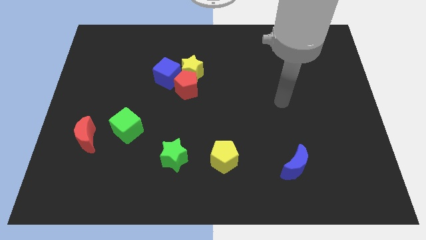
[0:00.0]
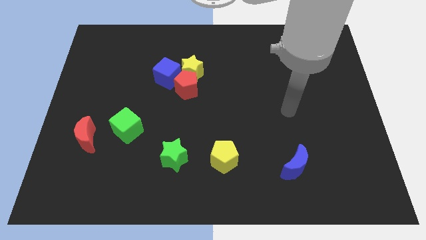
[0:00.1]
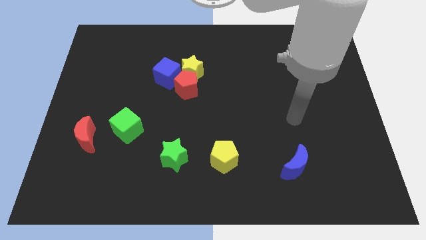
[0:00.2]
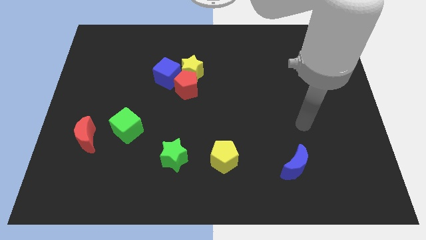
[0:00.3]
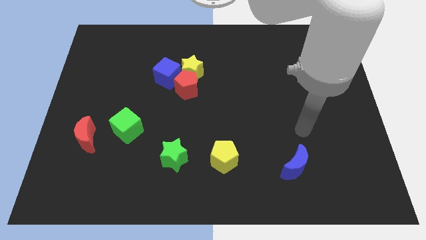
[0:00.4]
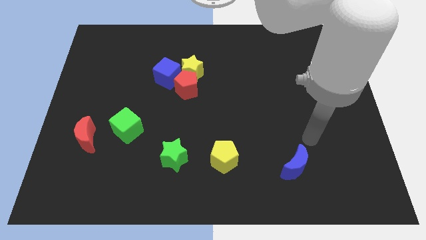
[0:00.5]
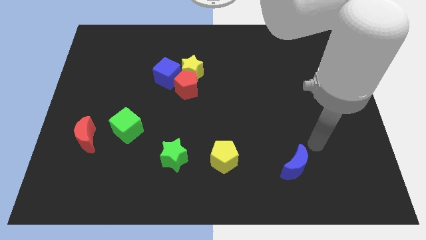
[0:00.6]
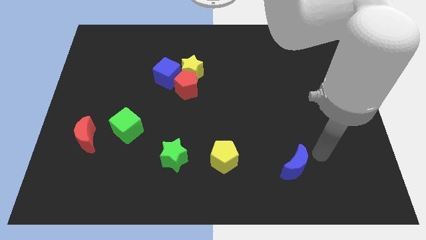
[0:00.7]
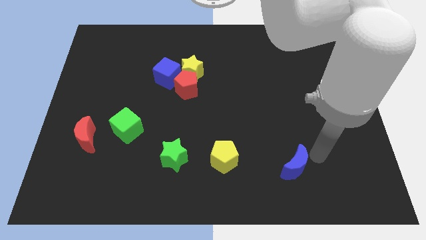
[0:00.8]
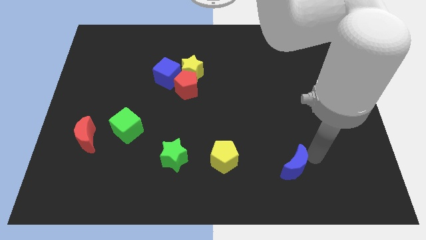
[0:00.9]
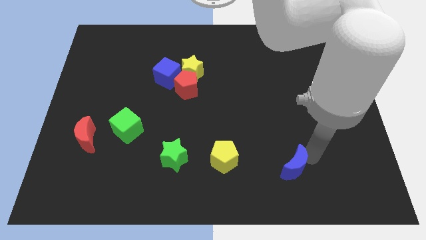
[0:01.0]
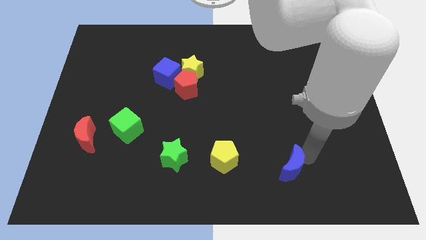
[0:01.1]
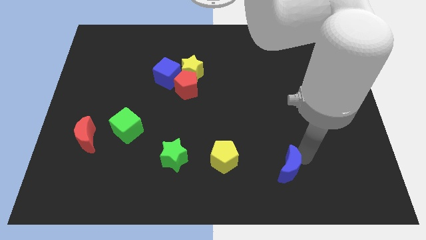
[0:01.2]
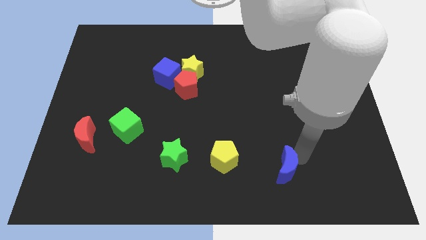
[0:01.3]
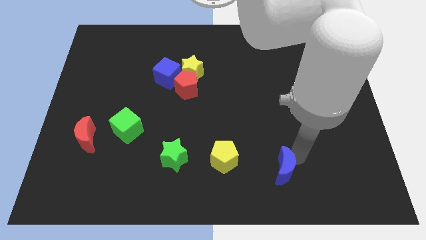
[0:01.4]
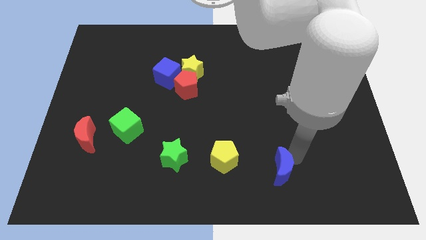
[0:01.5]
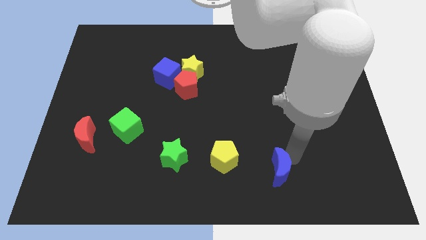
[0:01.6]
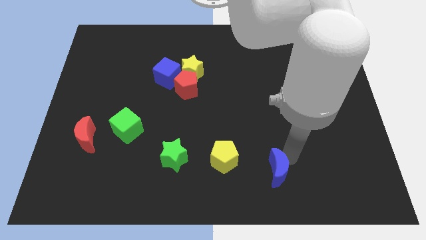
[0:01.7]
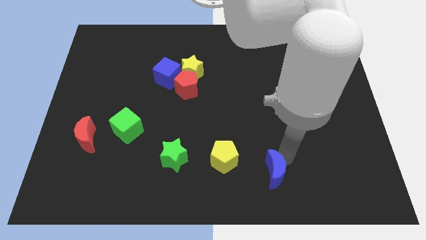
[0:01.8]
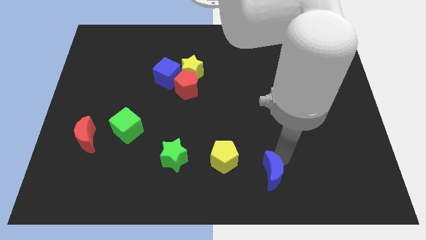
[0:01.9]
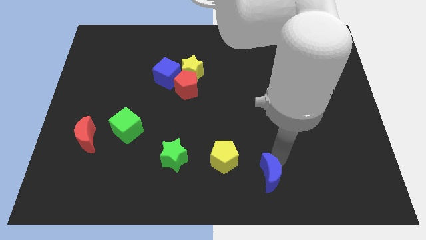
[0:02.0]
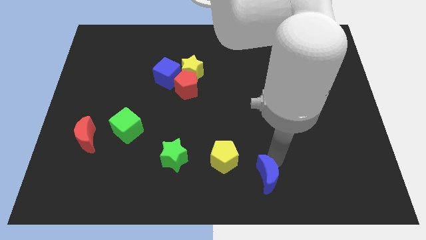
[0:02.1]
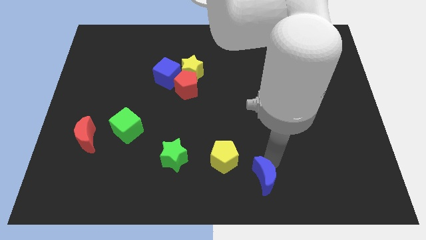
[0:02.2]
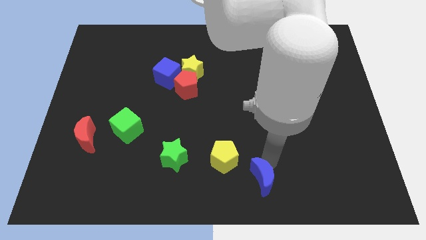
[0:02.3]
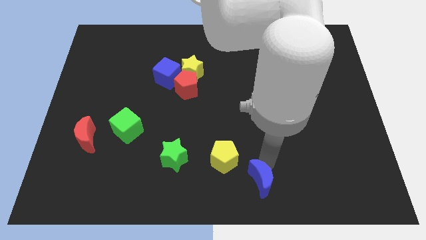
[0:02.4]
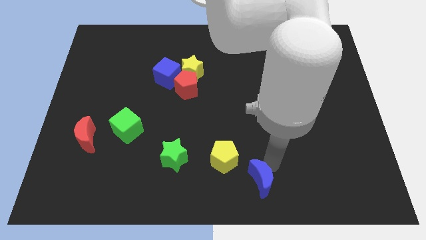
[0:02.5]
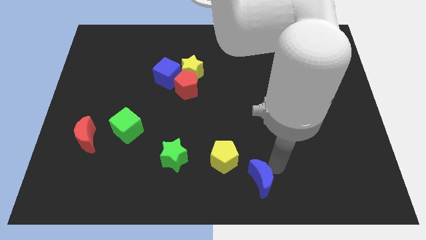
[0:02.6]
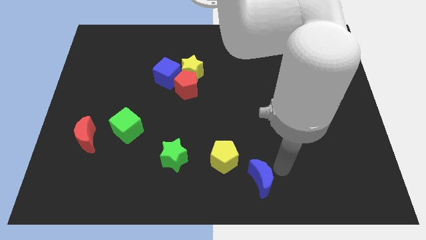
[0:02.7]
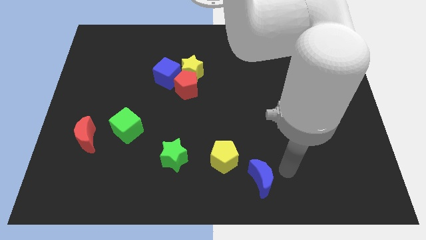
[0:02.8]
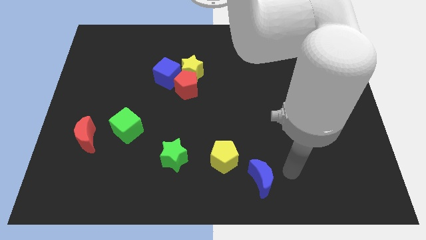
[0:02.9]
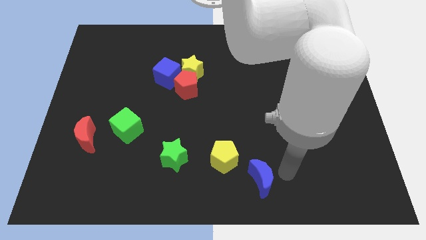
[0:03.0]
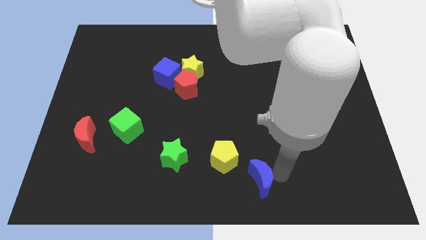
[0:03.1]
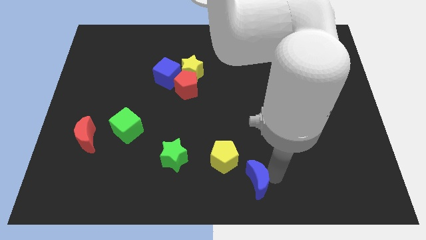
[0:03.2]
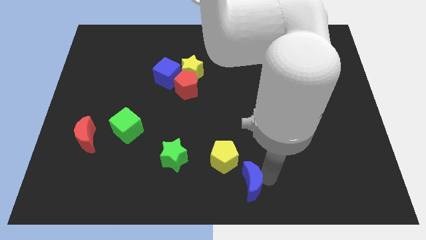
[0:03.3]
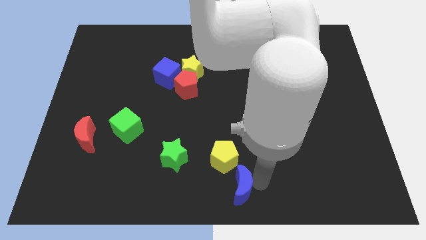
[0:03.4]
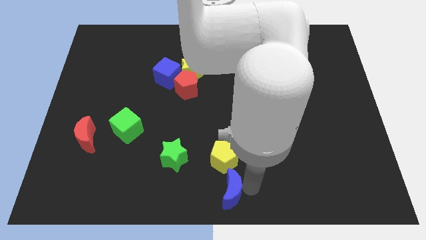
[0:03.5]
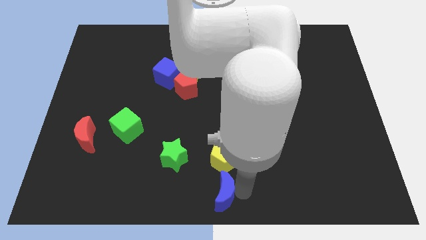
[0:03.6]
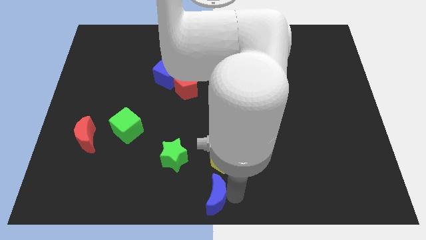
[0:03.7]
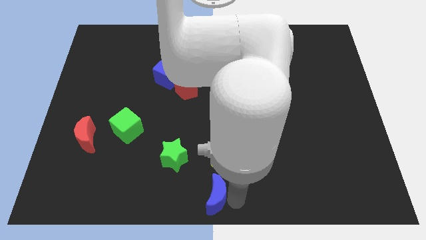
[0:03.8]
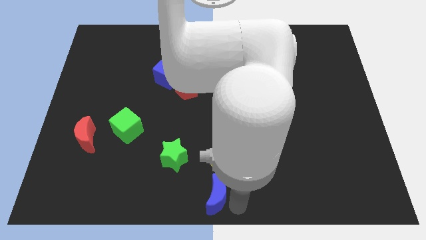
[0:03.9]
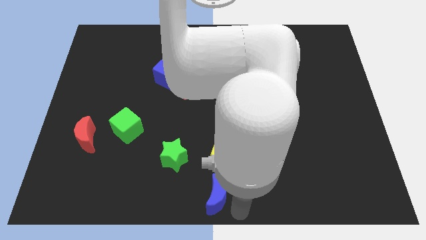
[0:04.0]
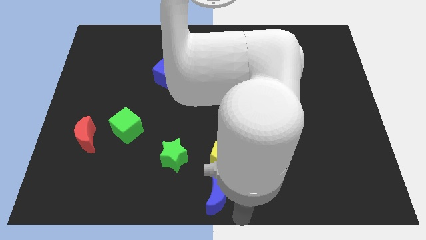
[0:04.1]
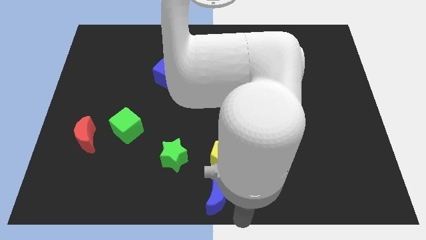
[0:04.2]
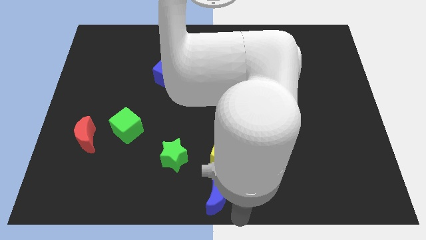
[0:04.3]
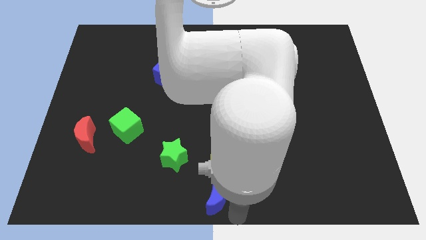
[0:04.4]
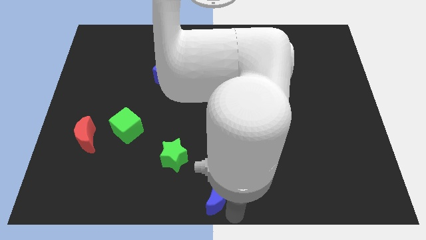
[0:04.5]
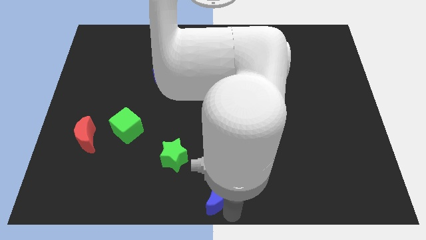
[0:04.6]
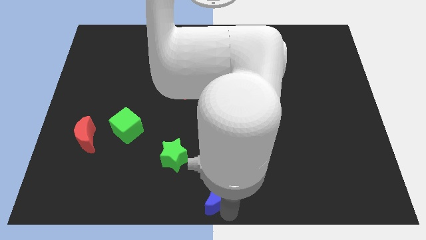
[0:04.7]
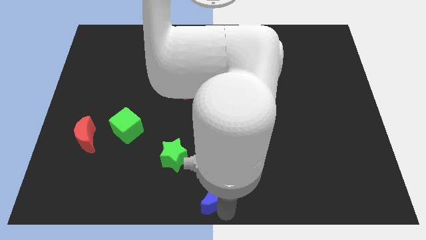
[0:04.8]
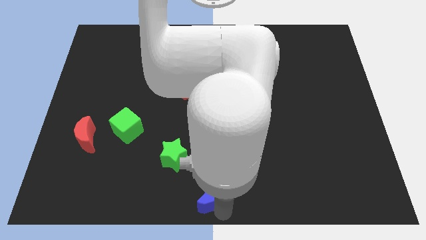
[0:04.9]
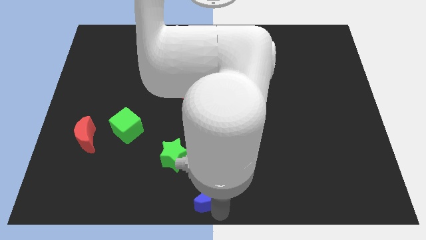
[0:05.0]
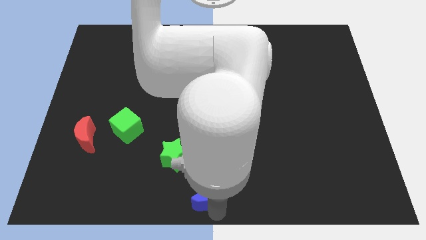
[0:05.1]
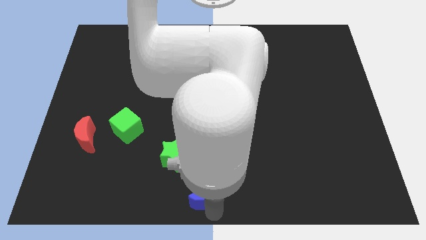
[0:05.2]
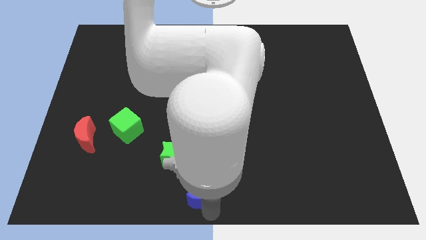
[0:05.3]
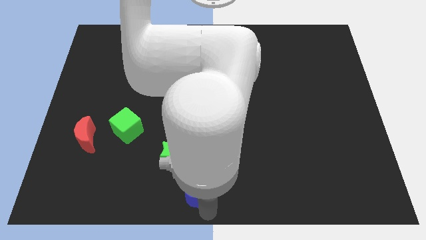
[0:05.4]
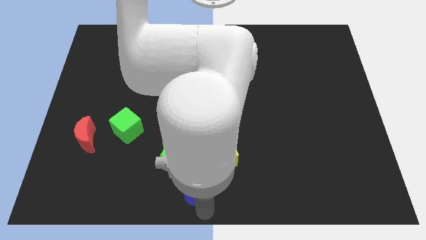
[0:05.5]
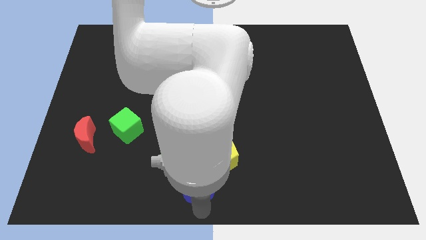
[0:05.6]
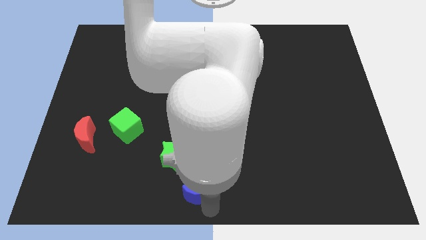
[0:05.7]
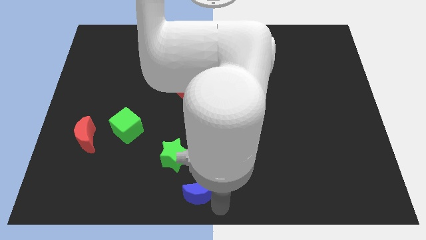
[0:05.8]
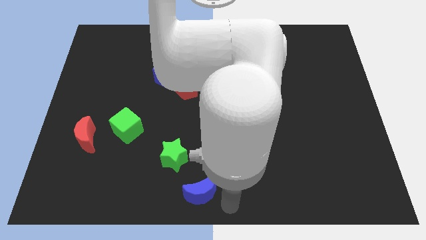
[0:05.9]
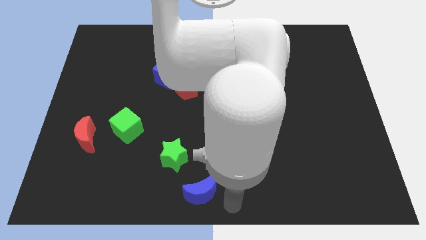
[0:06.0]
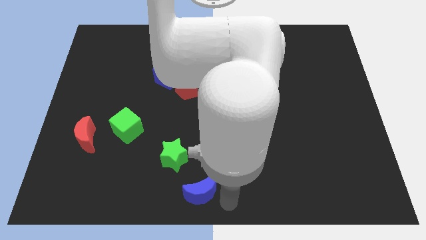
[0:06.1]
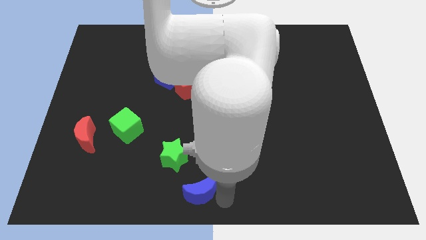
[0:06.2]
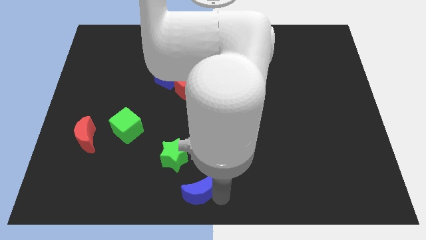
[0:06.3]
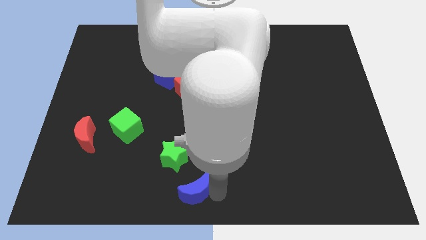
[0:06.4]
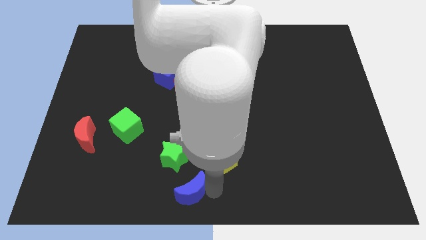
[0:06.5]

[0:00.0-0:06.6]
move the blue moon to the left

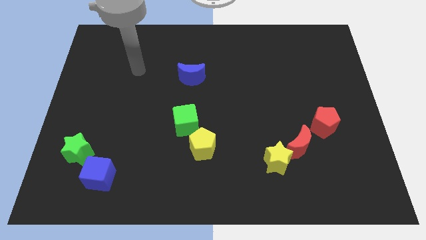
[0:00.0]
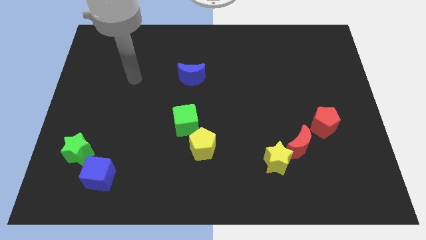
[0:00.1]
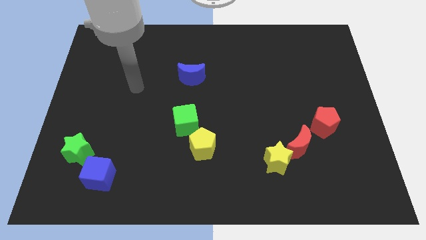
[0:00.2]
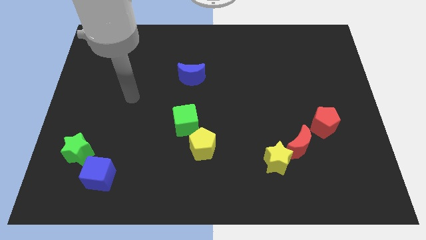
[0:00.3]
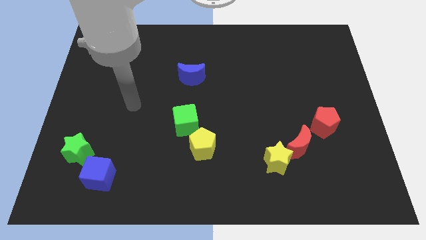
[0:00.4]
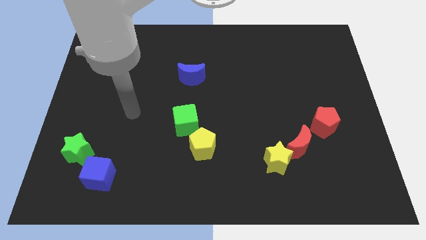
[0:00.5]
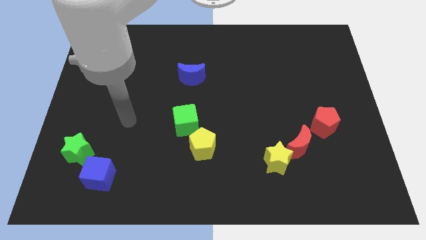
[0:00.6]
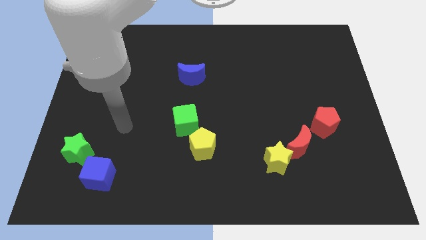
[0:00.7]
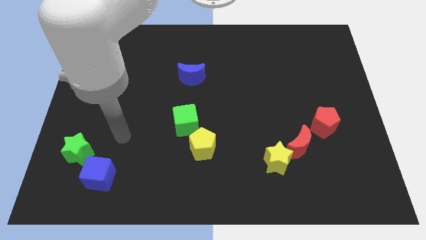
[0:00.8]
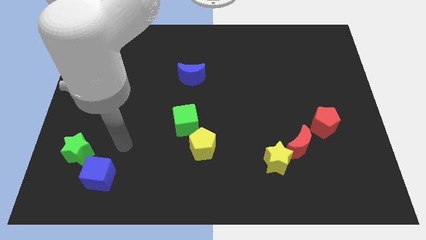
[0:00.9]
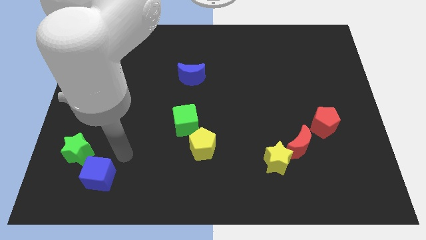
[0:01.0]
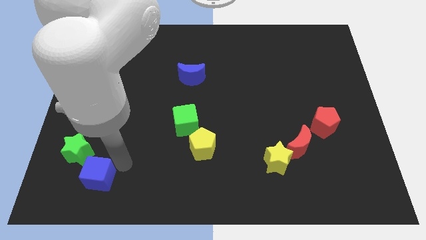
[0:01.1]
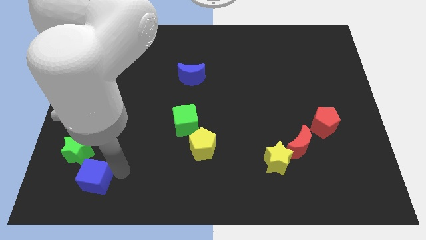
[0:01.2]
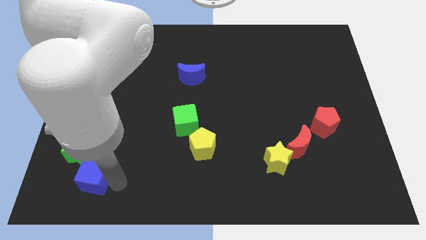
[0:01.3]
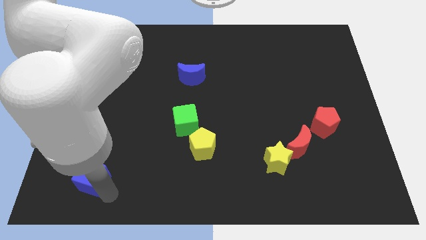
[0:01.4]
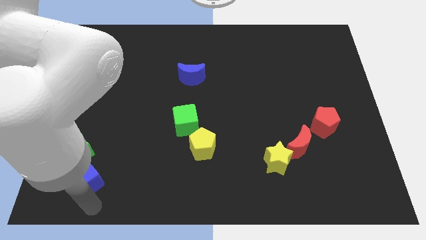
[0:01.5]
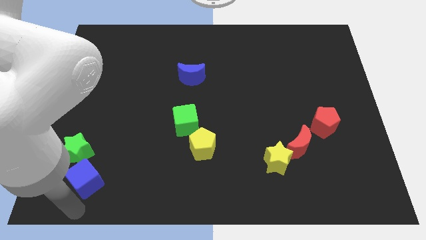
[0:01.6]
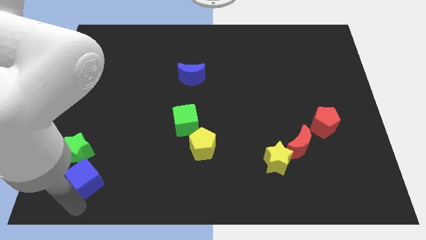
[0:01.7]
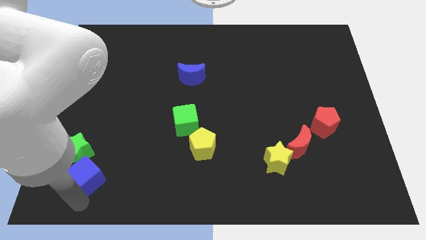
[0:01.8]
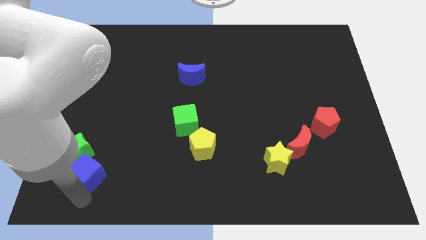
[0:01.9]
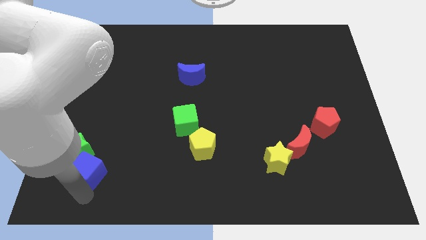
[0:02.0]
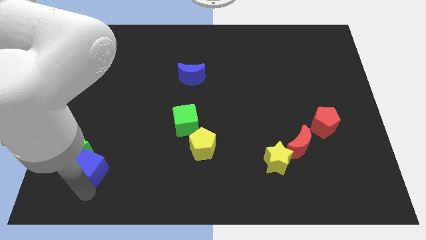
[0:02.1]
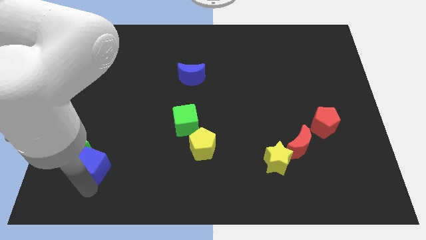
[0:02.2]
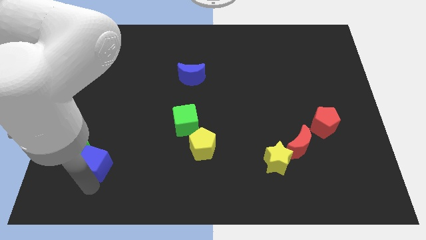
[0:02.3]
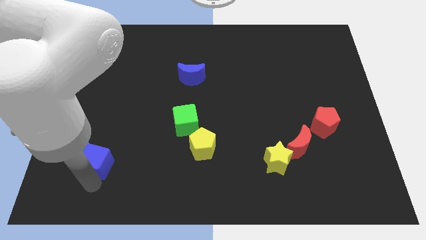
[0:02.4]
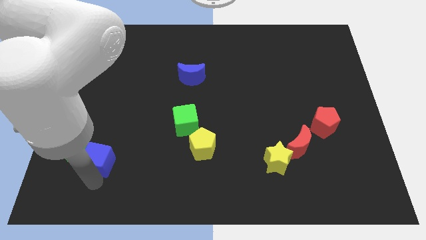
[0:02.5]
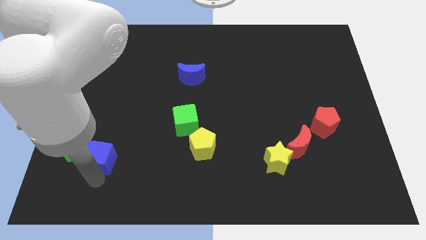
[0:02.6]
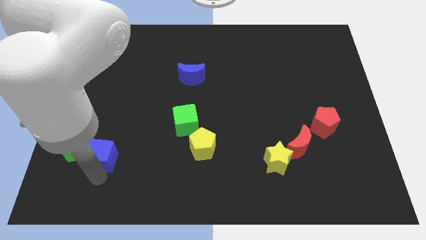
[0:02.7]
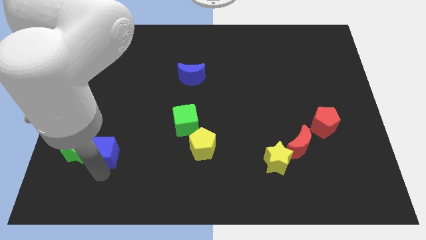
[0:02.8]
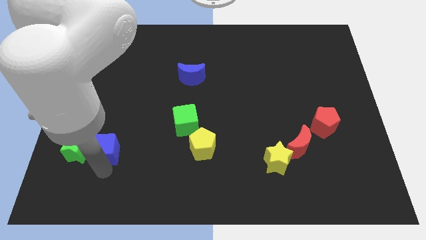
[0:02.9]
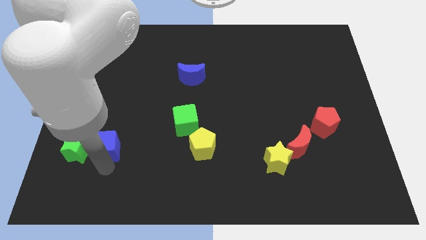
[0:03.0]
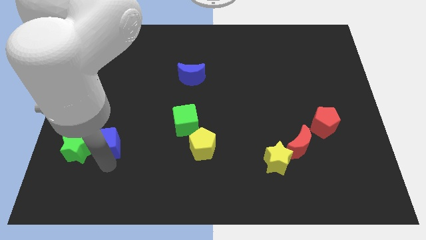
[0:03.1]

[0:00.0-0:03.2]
move the blue cube upwards a little bit
